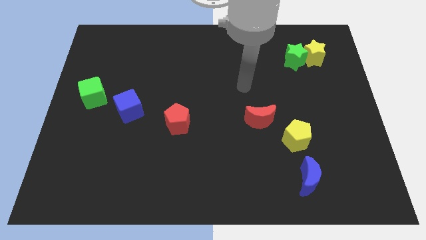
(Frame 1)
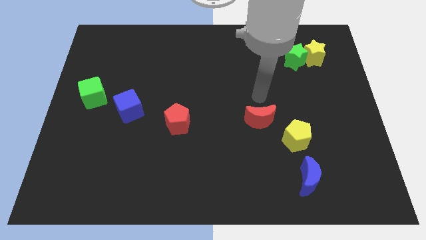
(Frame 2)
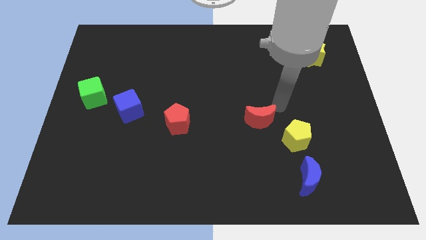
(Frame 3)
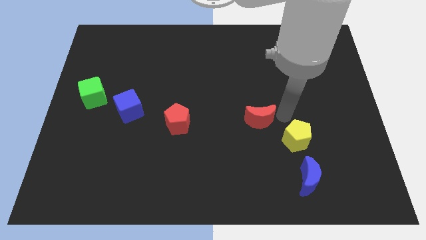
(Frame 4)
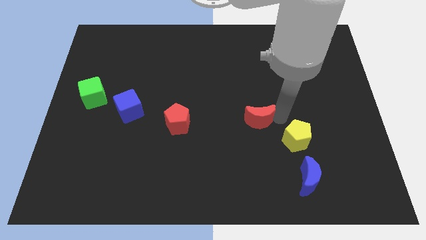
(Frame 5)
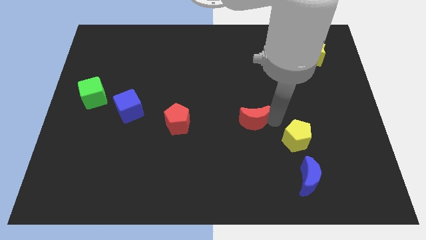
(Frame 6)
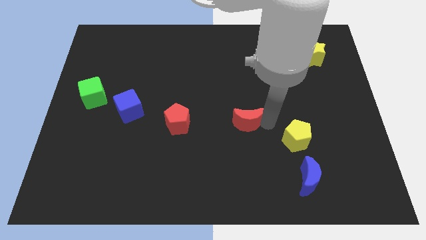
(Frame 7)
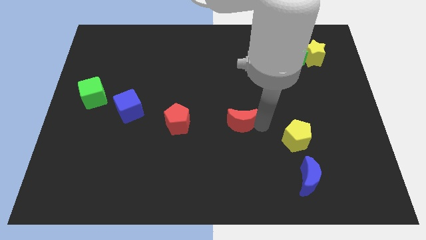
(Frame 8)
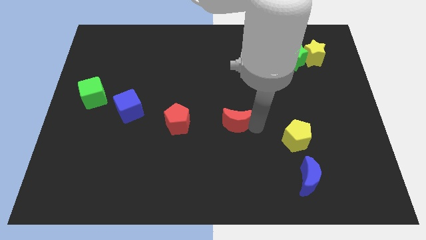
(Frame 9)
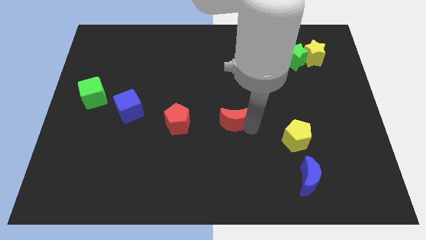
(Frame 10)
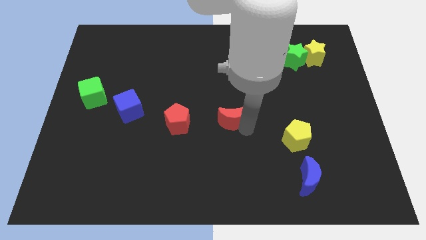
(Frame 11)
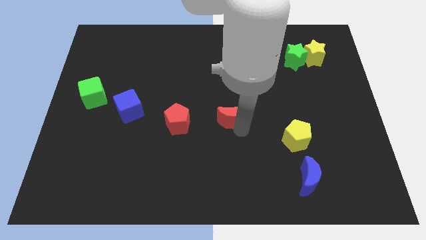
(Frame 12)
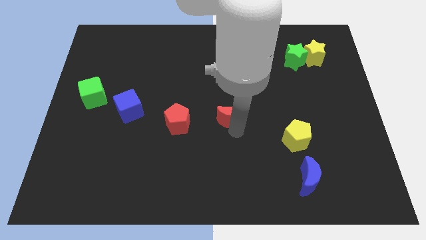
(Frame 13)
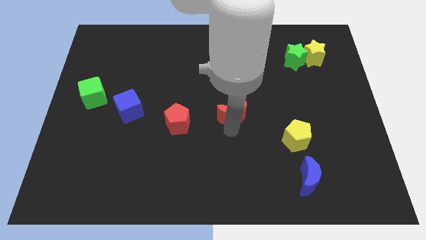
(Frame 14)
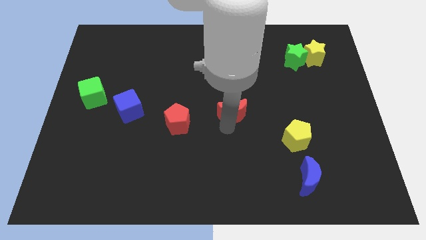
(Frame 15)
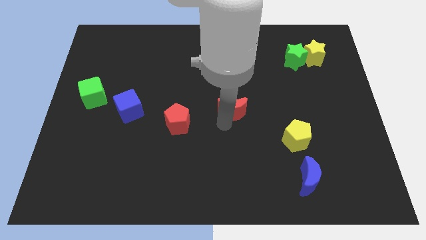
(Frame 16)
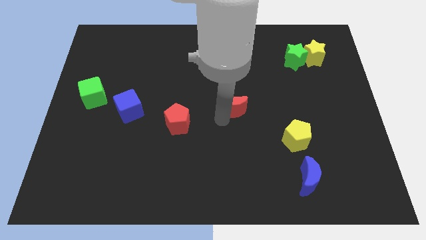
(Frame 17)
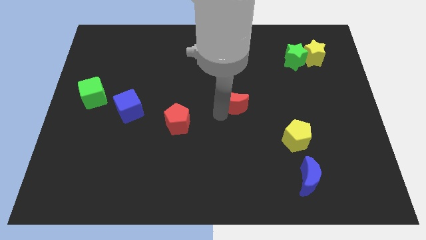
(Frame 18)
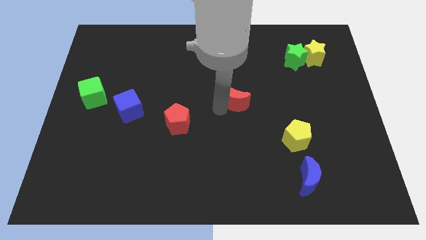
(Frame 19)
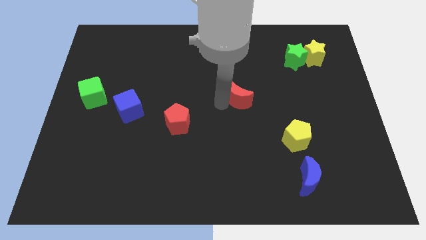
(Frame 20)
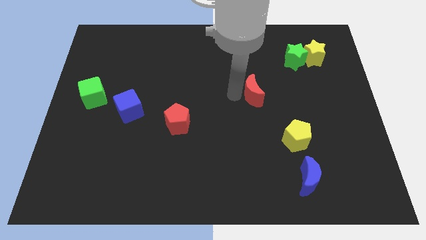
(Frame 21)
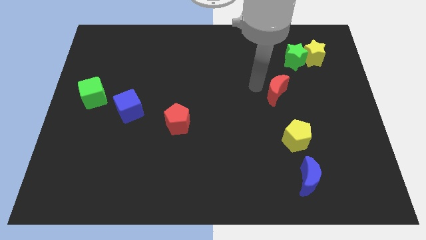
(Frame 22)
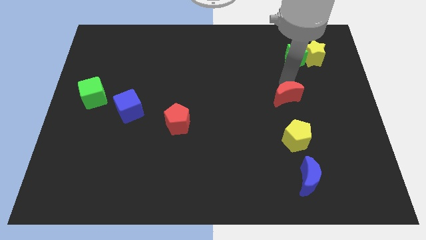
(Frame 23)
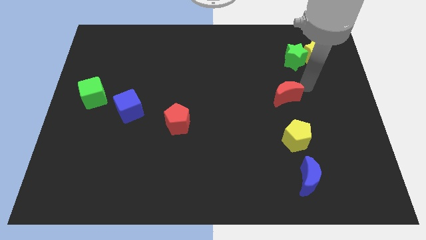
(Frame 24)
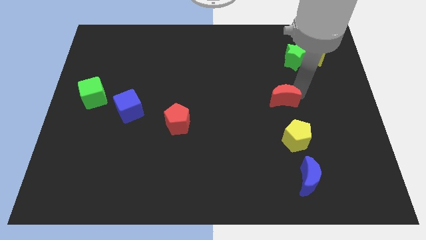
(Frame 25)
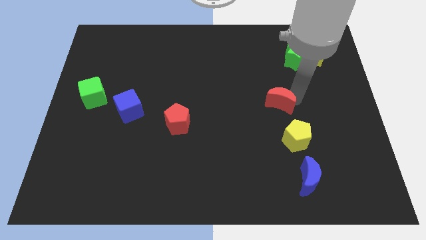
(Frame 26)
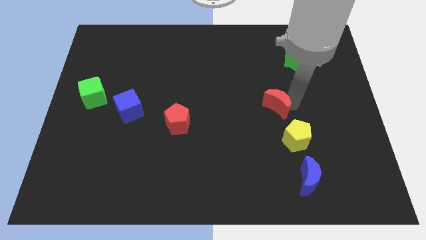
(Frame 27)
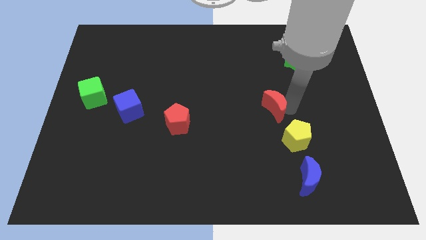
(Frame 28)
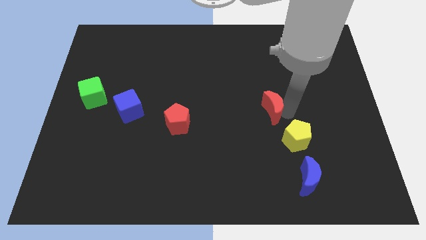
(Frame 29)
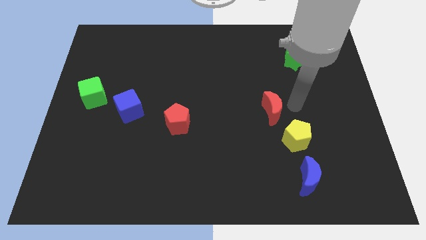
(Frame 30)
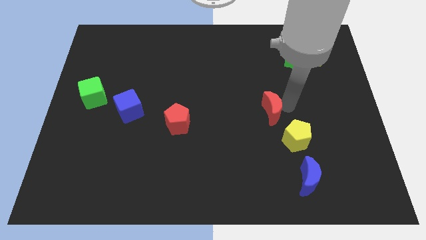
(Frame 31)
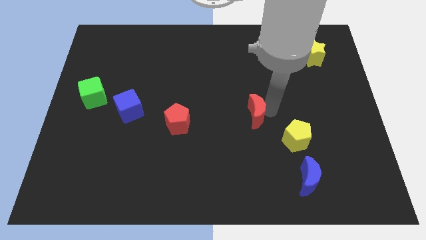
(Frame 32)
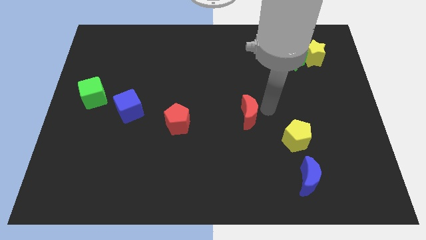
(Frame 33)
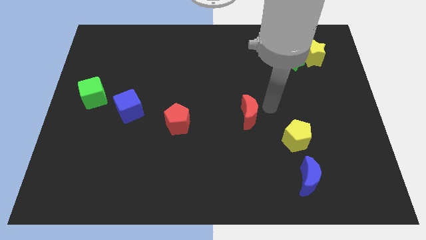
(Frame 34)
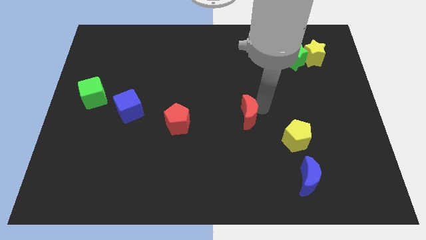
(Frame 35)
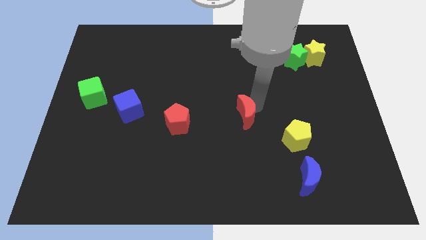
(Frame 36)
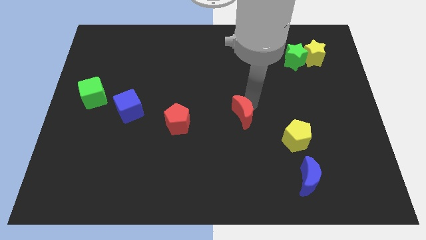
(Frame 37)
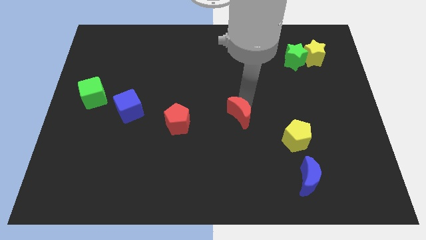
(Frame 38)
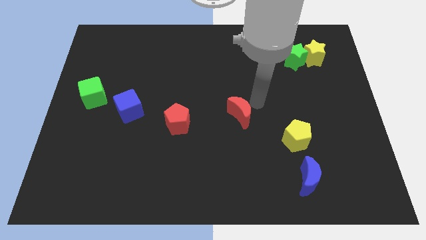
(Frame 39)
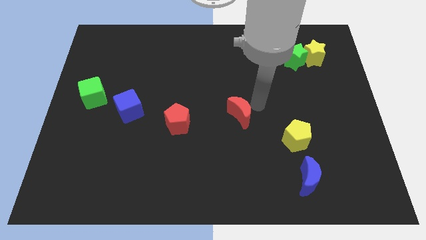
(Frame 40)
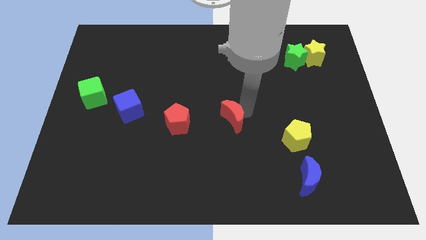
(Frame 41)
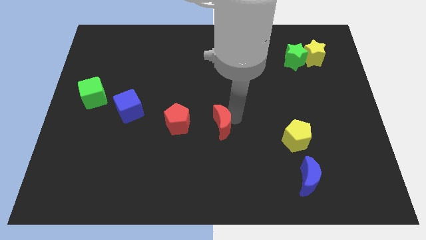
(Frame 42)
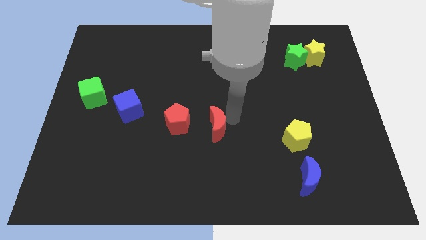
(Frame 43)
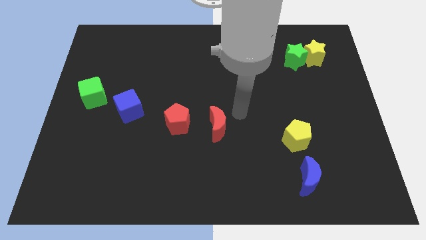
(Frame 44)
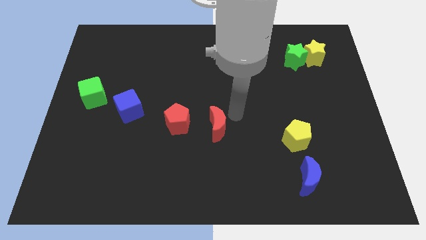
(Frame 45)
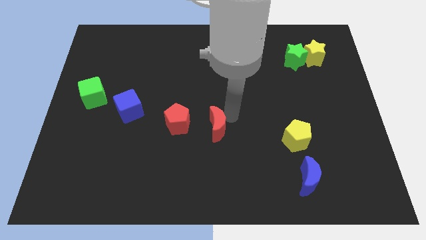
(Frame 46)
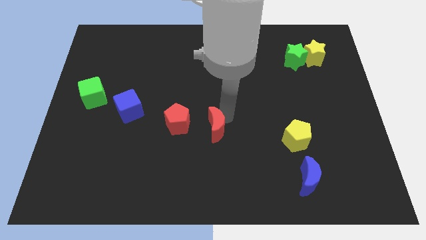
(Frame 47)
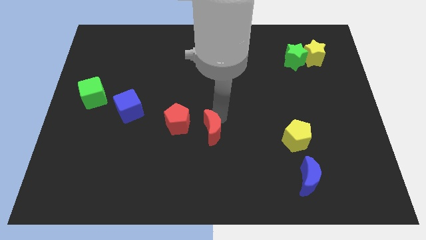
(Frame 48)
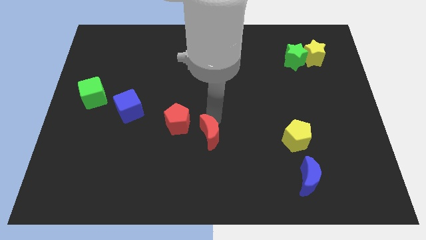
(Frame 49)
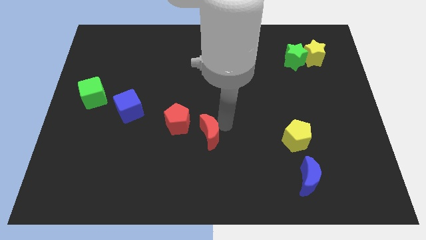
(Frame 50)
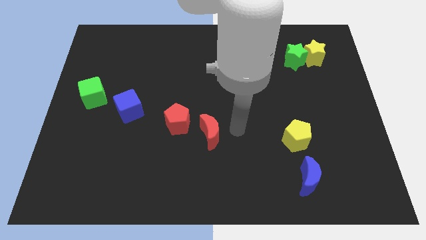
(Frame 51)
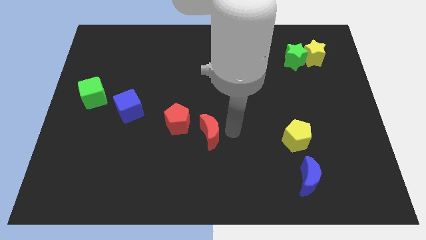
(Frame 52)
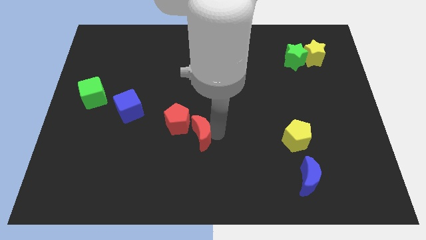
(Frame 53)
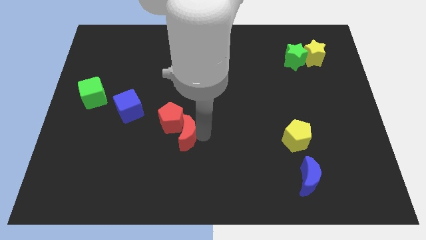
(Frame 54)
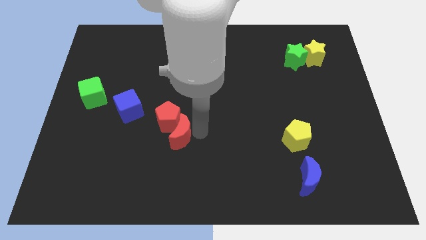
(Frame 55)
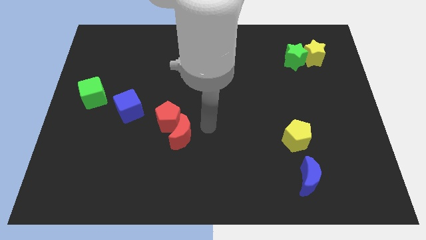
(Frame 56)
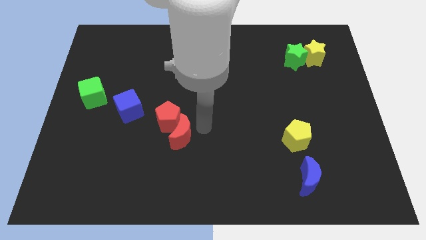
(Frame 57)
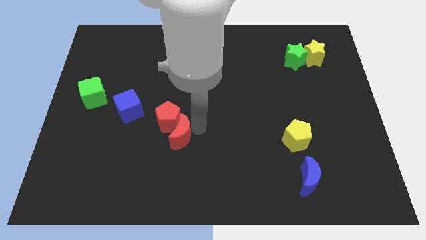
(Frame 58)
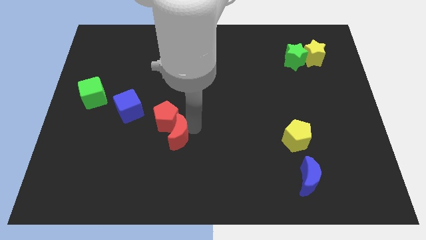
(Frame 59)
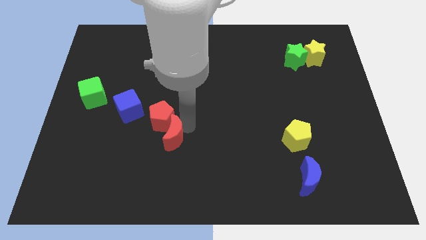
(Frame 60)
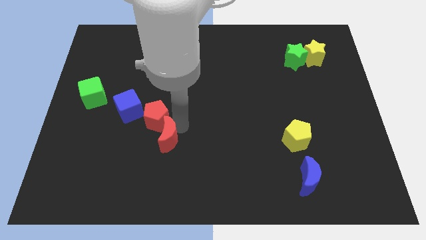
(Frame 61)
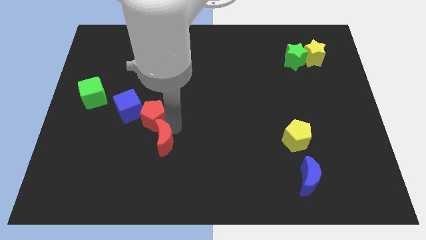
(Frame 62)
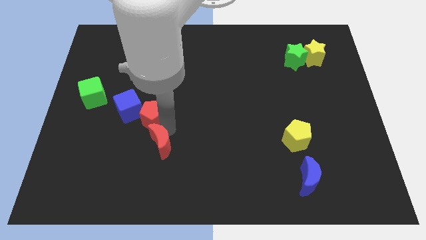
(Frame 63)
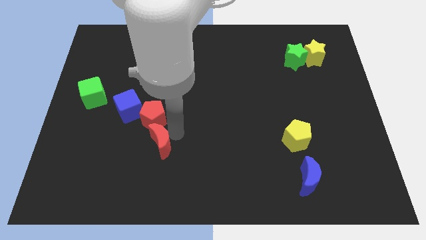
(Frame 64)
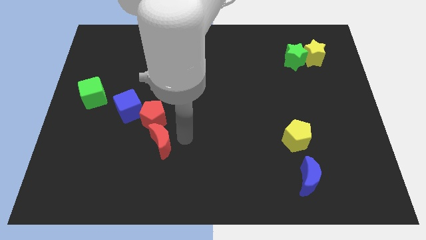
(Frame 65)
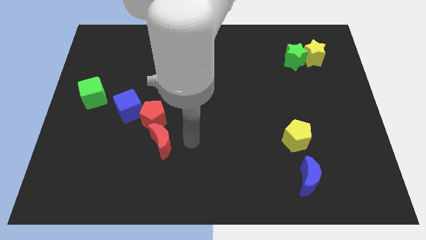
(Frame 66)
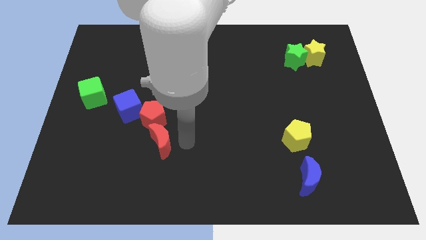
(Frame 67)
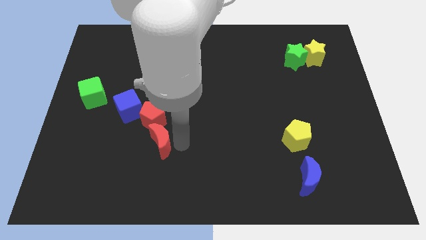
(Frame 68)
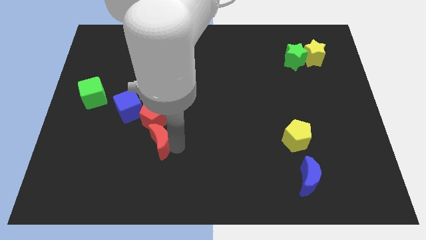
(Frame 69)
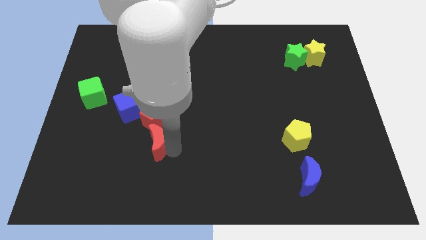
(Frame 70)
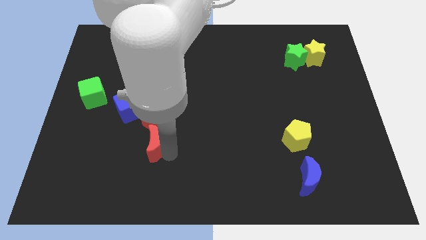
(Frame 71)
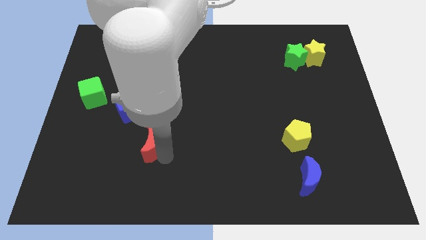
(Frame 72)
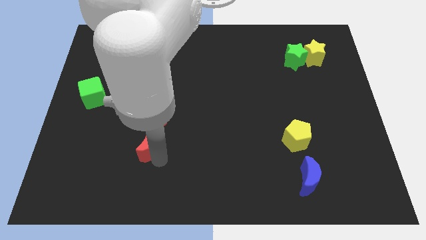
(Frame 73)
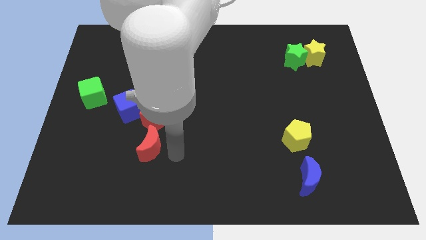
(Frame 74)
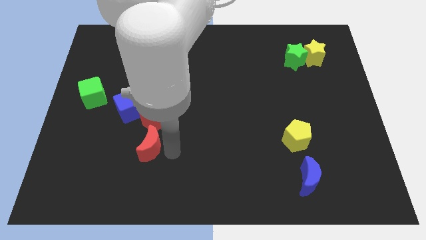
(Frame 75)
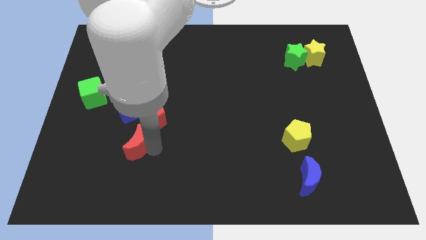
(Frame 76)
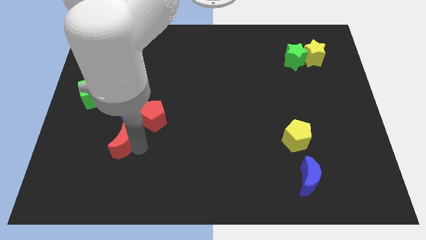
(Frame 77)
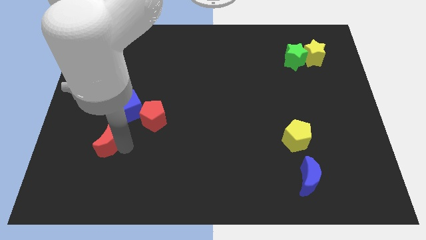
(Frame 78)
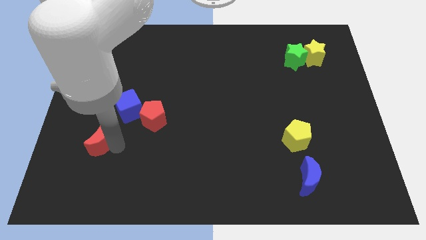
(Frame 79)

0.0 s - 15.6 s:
put the red moon below the green cube
